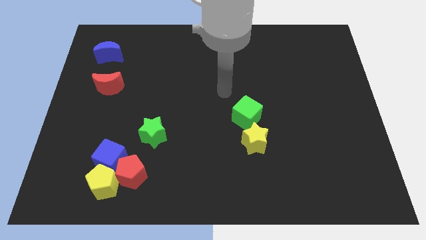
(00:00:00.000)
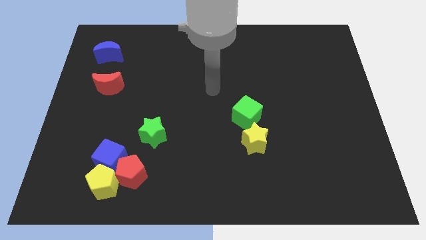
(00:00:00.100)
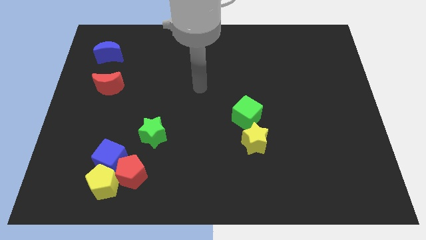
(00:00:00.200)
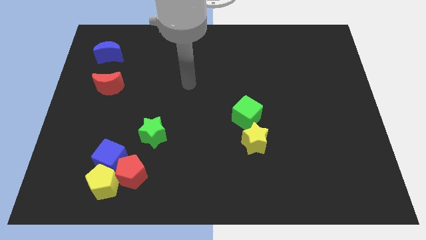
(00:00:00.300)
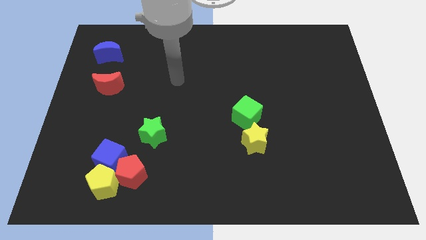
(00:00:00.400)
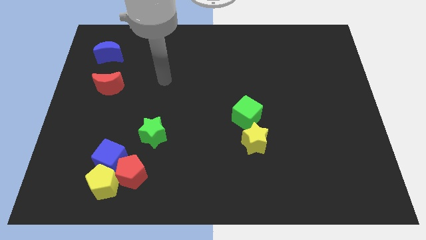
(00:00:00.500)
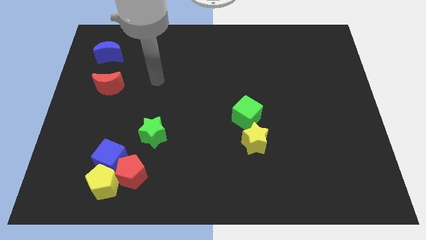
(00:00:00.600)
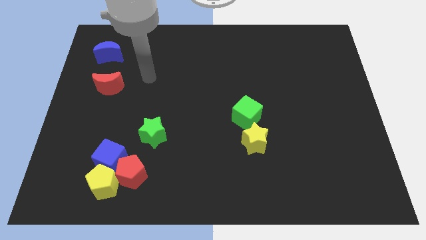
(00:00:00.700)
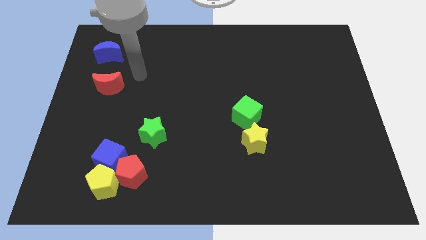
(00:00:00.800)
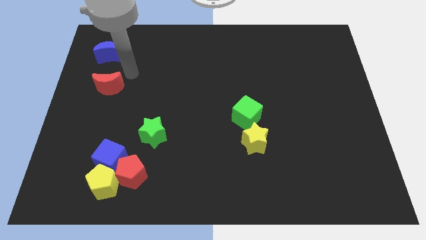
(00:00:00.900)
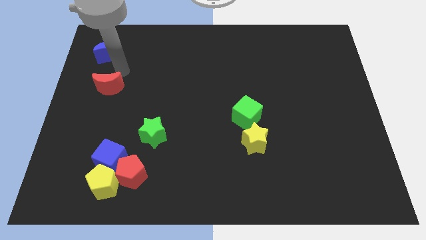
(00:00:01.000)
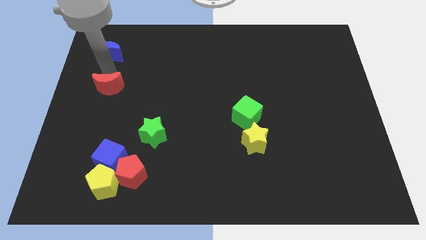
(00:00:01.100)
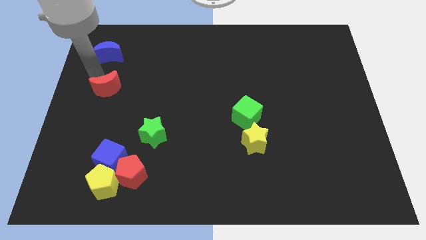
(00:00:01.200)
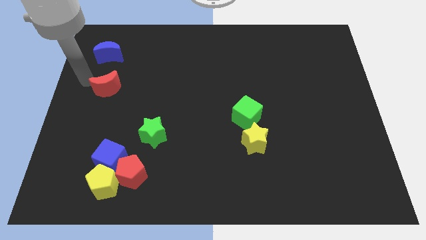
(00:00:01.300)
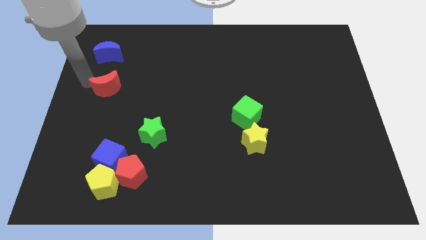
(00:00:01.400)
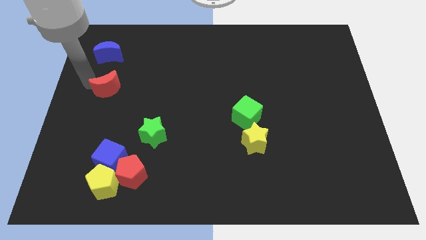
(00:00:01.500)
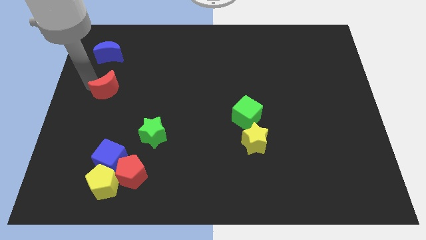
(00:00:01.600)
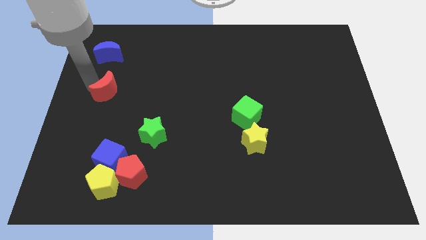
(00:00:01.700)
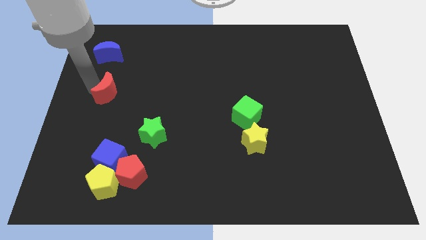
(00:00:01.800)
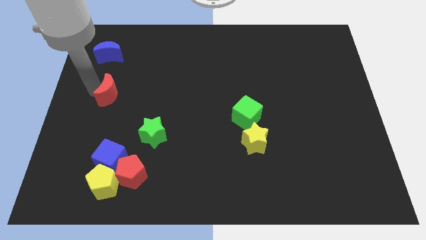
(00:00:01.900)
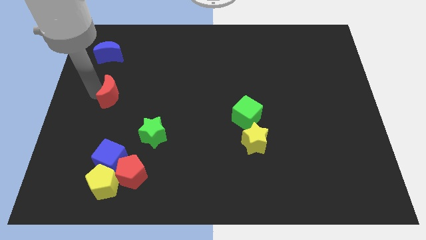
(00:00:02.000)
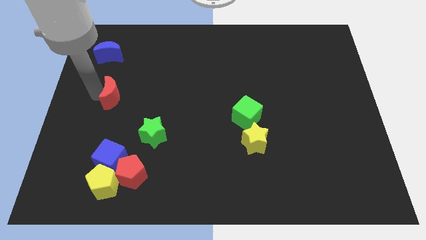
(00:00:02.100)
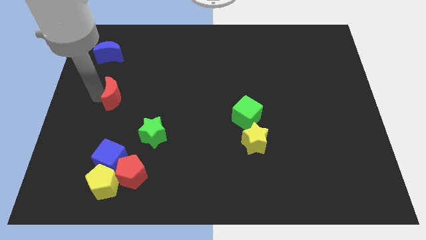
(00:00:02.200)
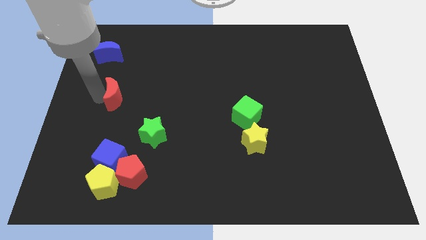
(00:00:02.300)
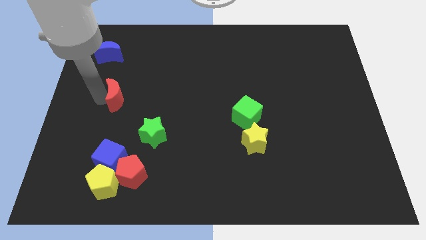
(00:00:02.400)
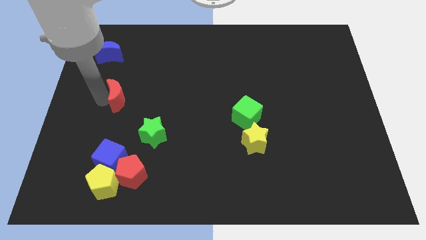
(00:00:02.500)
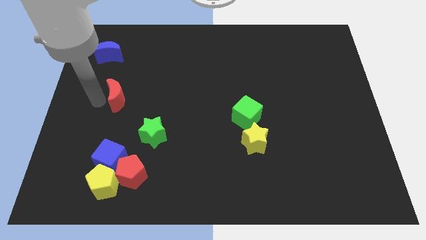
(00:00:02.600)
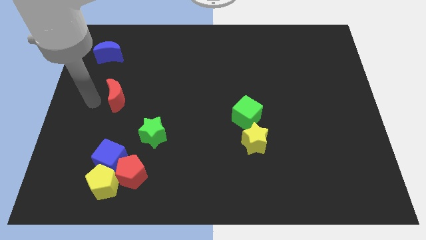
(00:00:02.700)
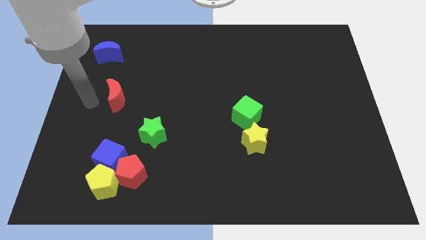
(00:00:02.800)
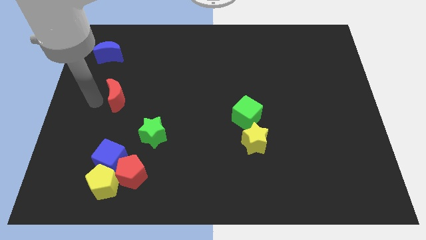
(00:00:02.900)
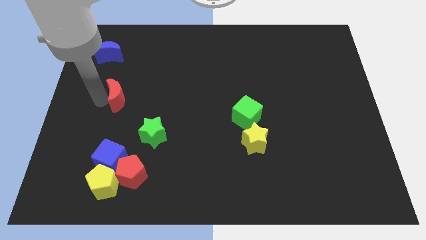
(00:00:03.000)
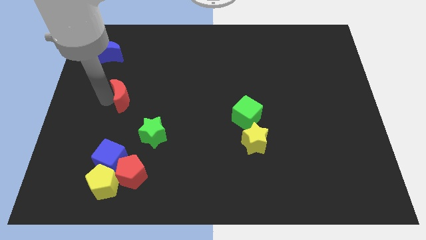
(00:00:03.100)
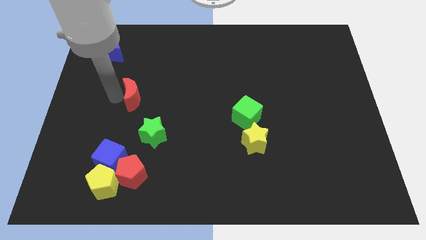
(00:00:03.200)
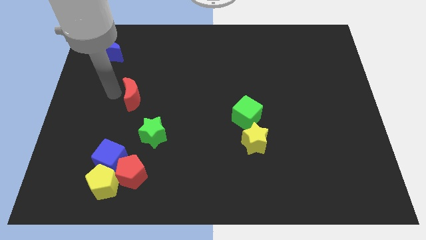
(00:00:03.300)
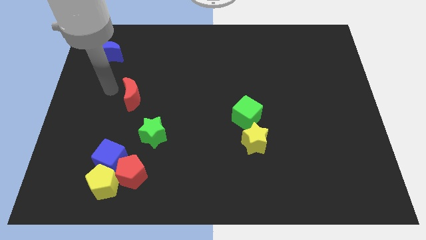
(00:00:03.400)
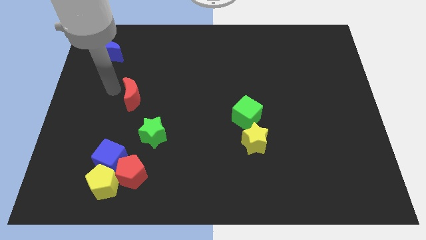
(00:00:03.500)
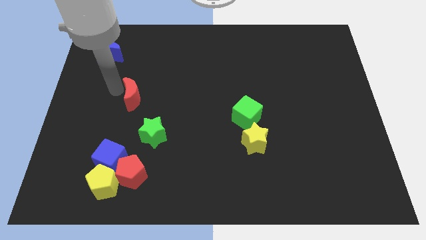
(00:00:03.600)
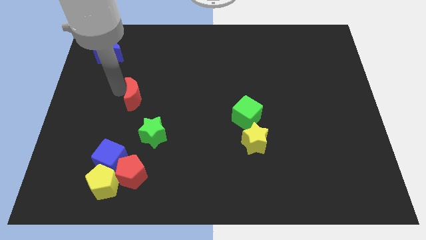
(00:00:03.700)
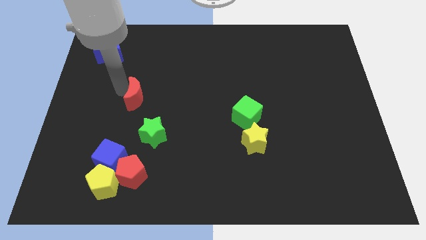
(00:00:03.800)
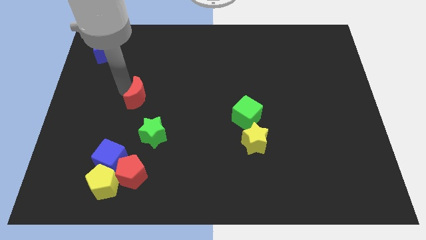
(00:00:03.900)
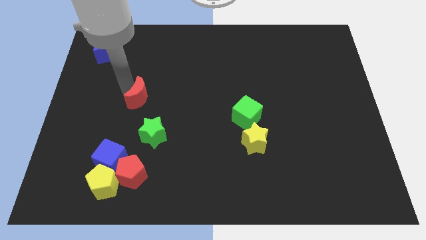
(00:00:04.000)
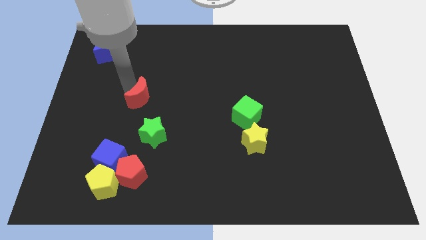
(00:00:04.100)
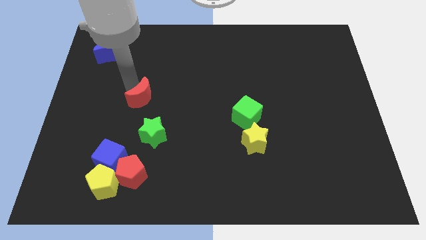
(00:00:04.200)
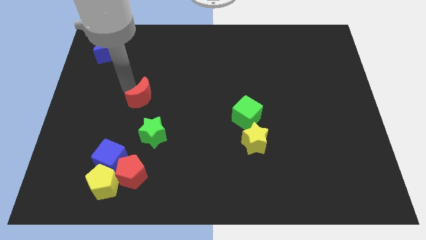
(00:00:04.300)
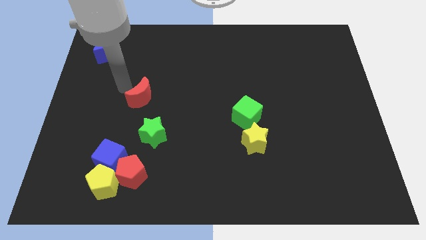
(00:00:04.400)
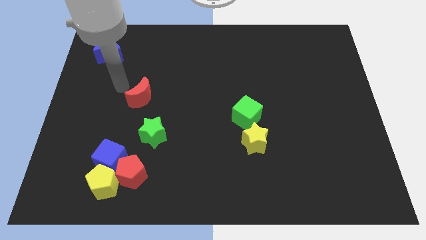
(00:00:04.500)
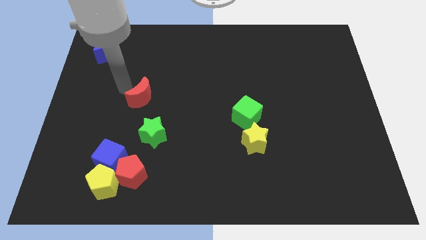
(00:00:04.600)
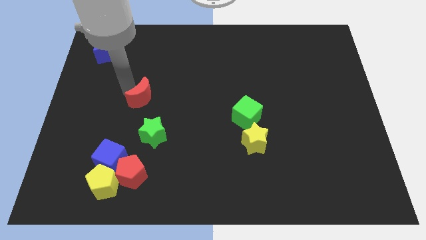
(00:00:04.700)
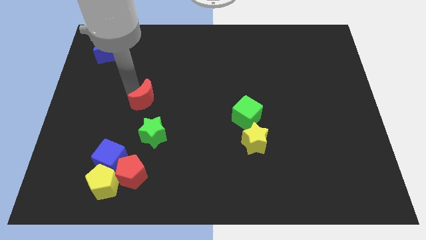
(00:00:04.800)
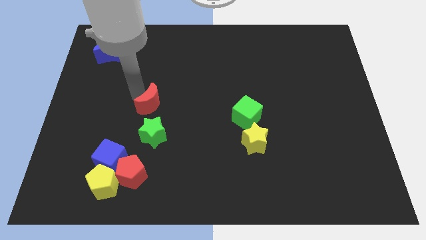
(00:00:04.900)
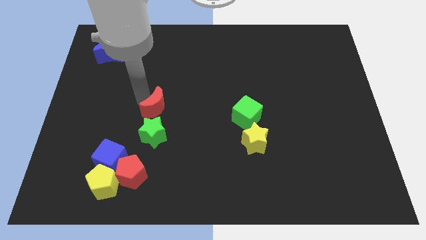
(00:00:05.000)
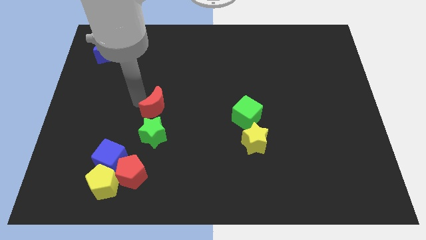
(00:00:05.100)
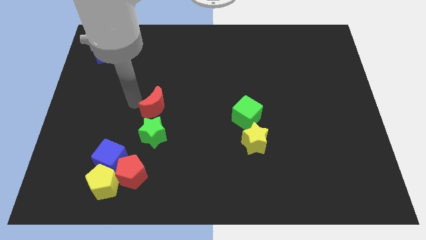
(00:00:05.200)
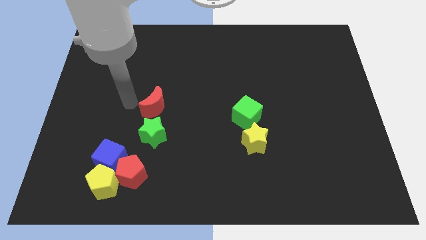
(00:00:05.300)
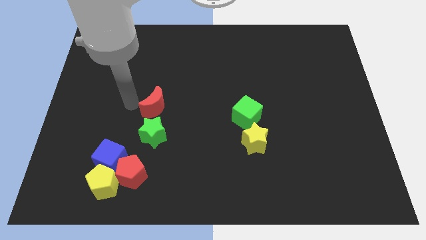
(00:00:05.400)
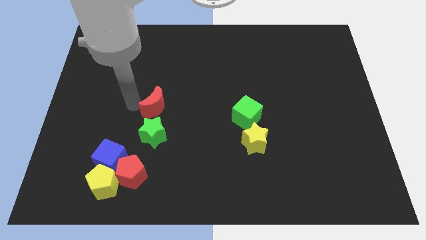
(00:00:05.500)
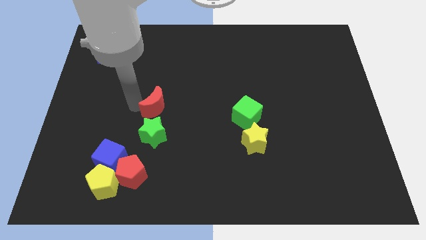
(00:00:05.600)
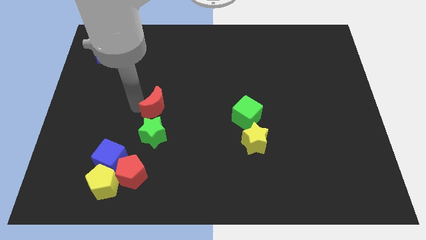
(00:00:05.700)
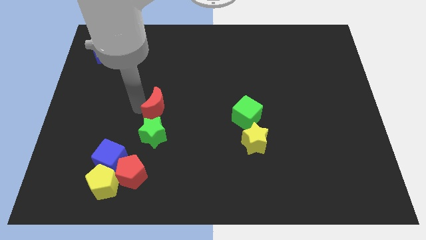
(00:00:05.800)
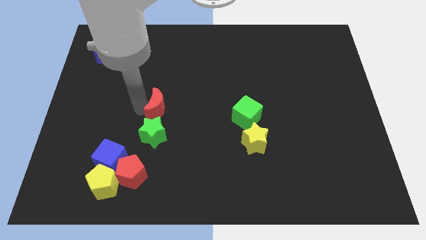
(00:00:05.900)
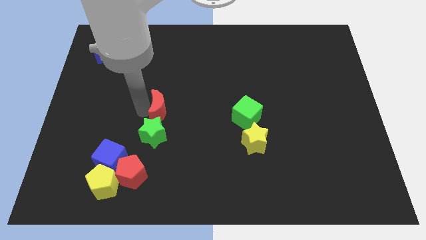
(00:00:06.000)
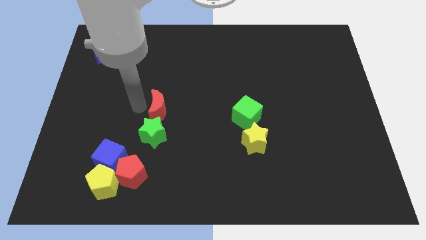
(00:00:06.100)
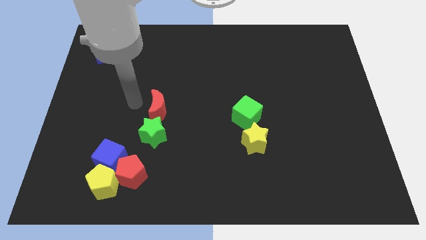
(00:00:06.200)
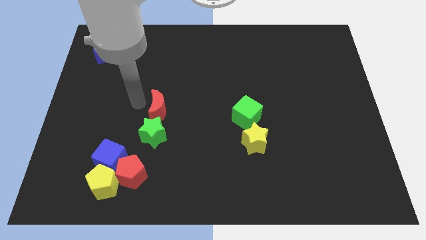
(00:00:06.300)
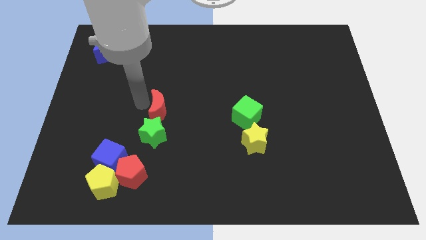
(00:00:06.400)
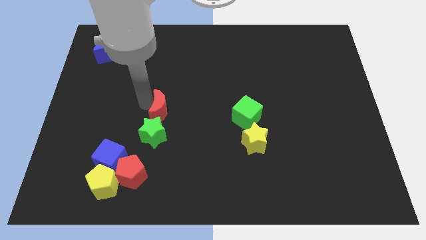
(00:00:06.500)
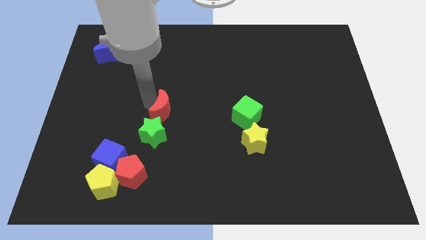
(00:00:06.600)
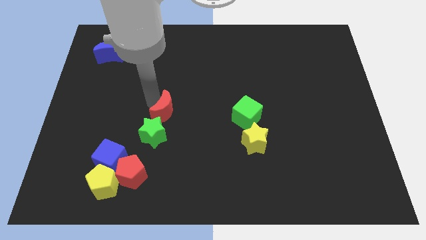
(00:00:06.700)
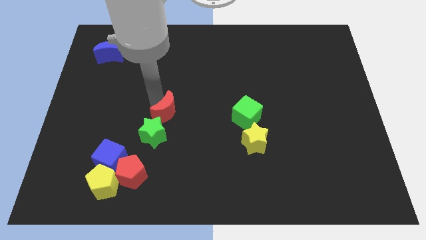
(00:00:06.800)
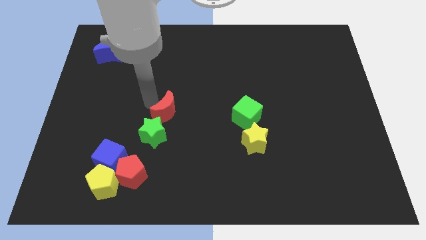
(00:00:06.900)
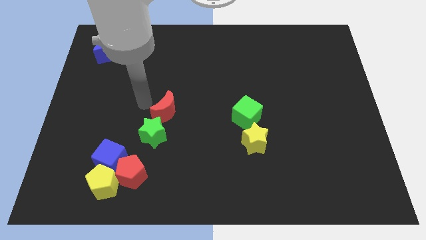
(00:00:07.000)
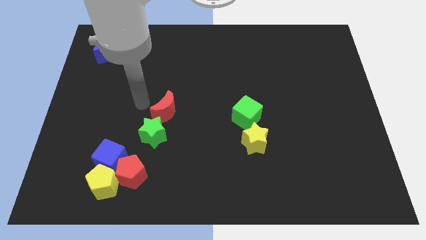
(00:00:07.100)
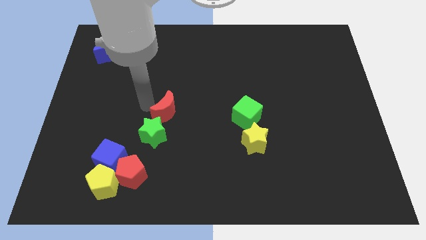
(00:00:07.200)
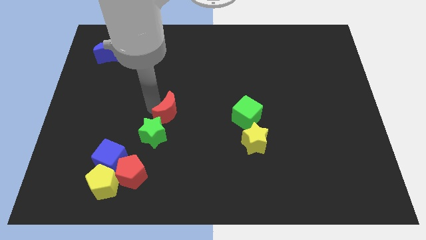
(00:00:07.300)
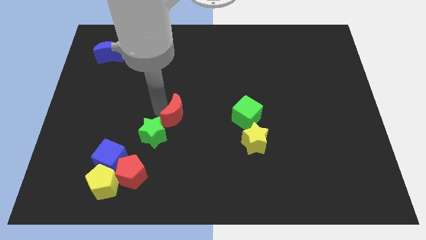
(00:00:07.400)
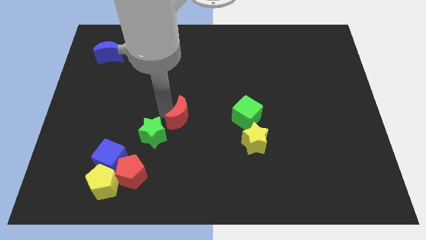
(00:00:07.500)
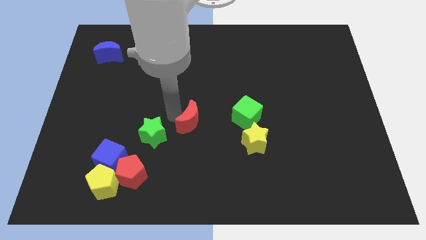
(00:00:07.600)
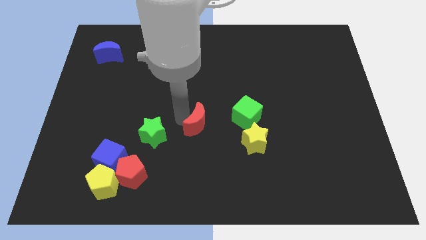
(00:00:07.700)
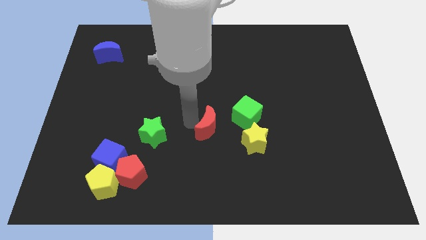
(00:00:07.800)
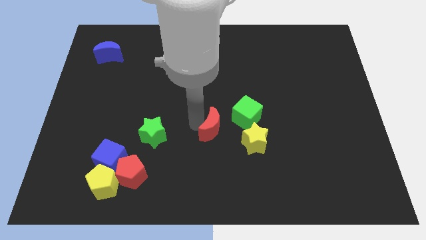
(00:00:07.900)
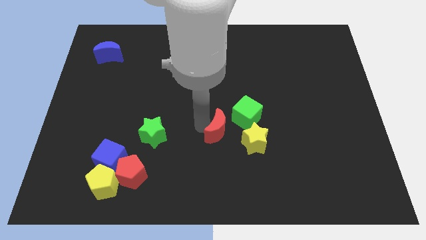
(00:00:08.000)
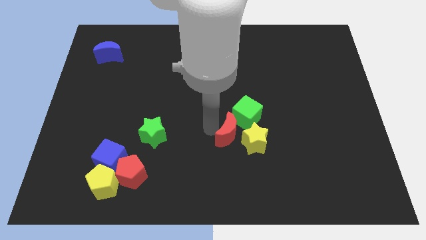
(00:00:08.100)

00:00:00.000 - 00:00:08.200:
put the red moon towards the yellow star
